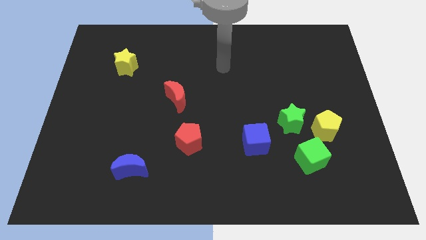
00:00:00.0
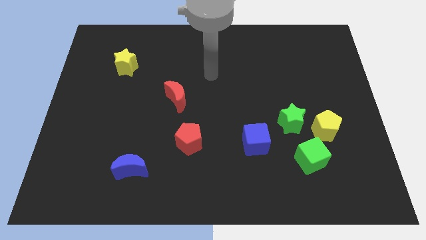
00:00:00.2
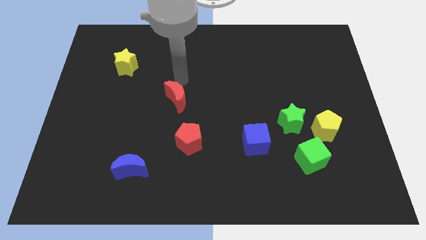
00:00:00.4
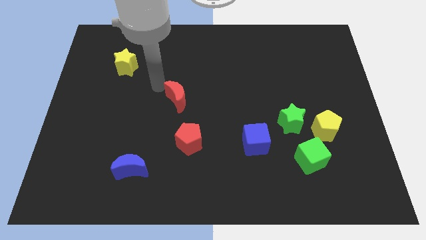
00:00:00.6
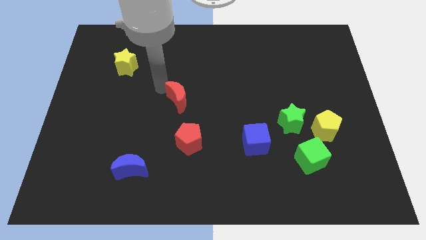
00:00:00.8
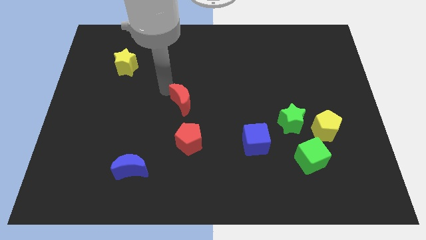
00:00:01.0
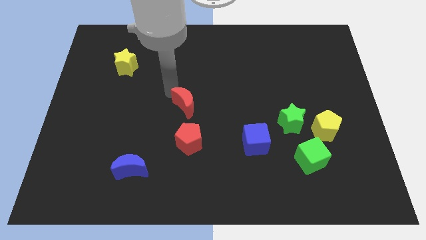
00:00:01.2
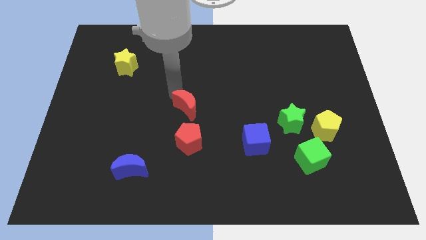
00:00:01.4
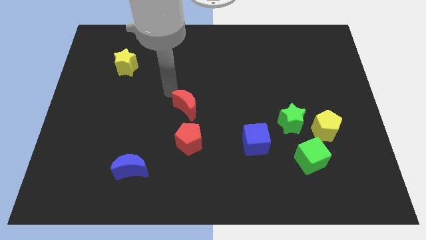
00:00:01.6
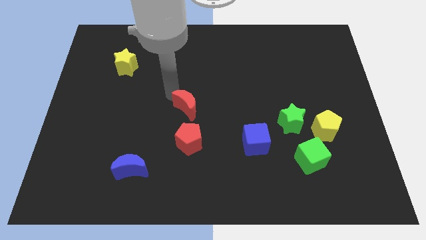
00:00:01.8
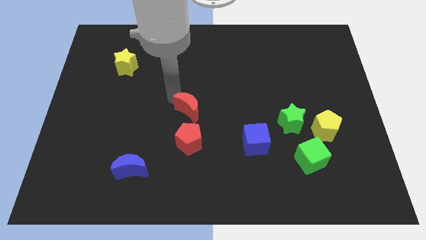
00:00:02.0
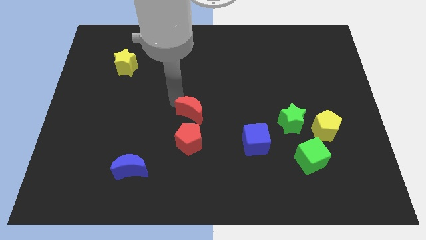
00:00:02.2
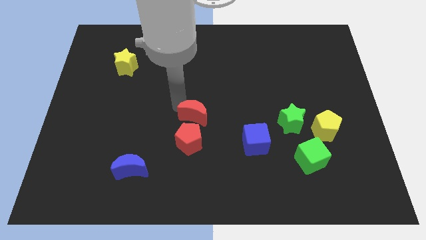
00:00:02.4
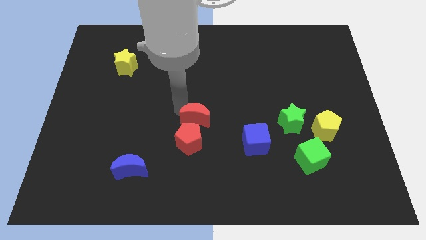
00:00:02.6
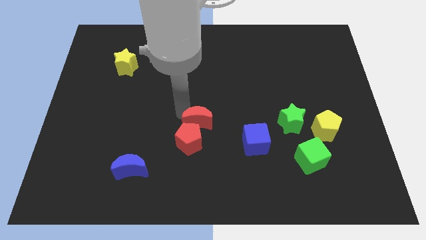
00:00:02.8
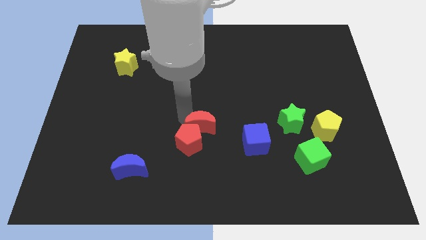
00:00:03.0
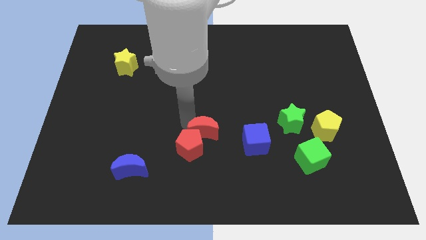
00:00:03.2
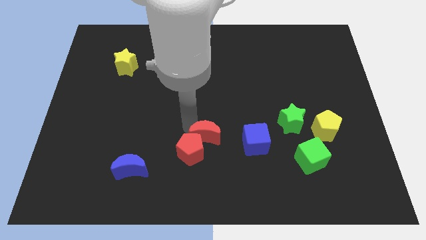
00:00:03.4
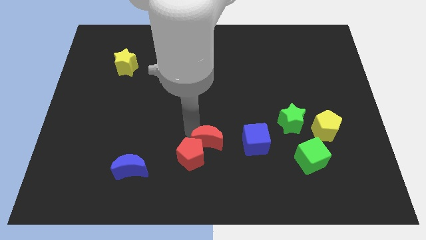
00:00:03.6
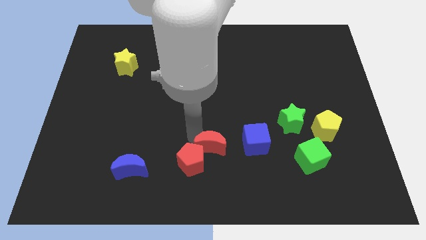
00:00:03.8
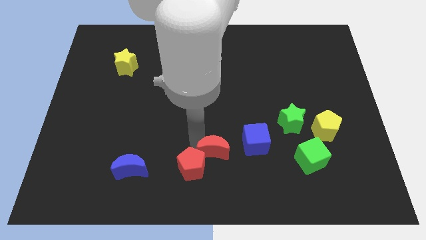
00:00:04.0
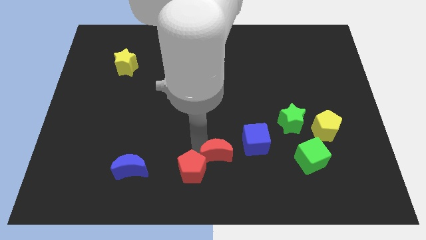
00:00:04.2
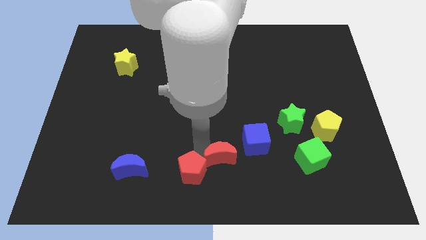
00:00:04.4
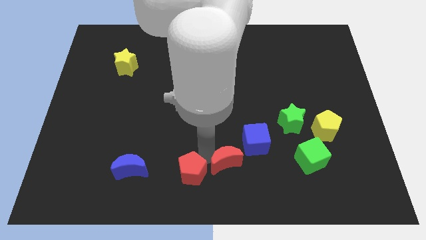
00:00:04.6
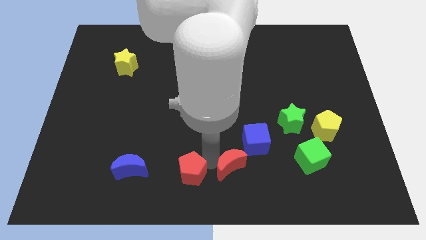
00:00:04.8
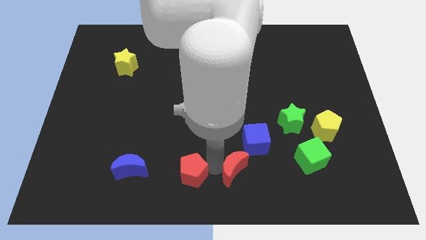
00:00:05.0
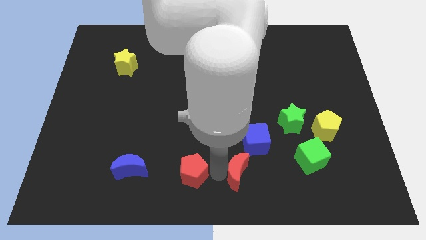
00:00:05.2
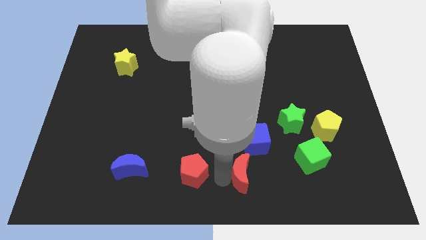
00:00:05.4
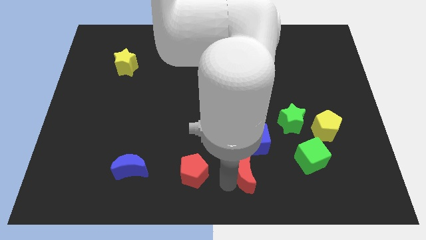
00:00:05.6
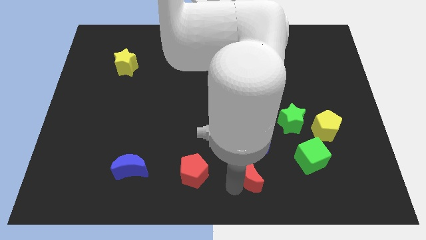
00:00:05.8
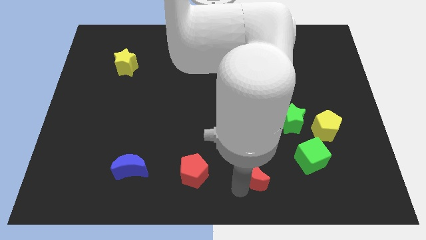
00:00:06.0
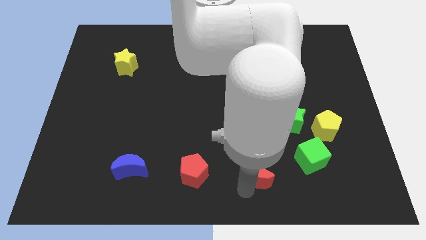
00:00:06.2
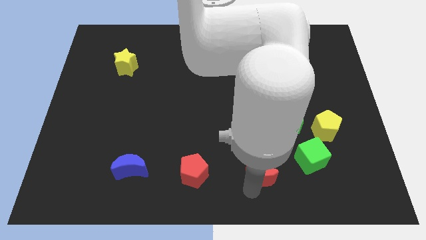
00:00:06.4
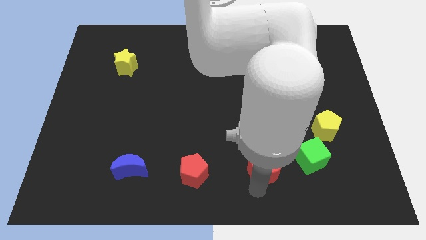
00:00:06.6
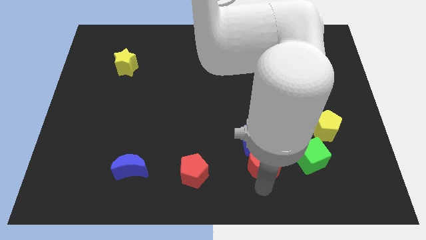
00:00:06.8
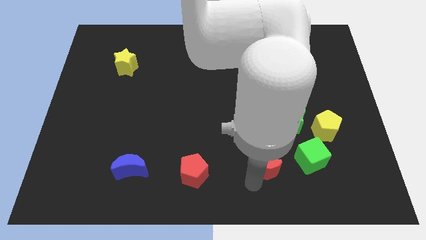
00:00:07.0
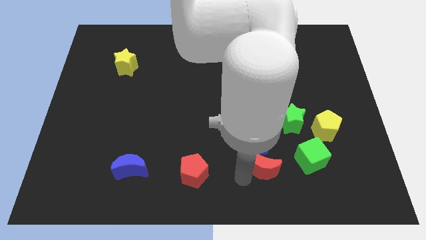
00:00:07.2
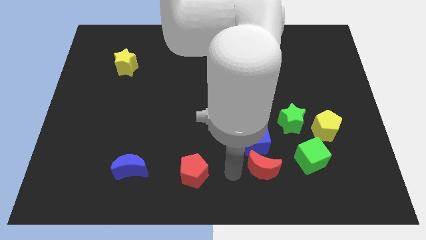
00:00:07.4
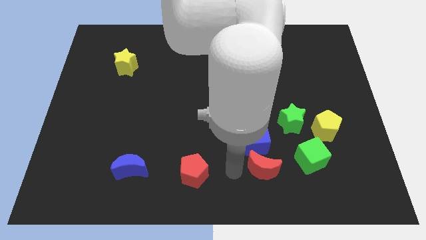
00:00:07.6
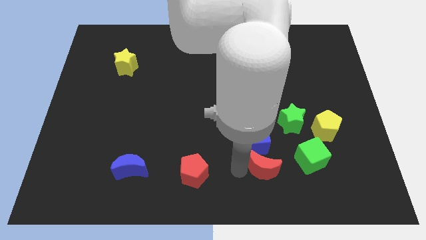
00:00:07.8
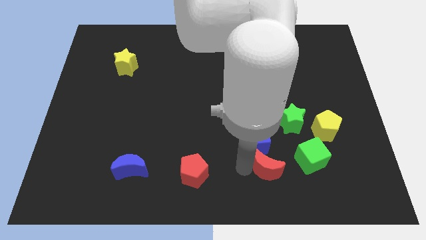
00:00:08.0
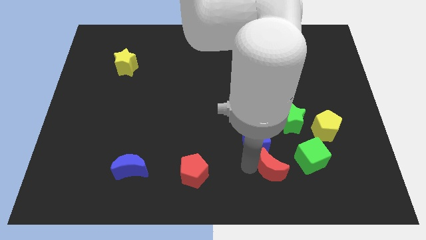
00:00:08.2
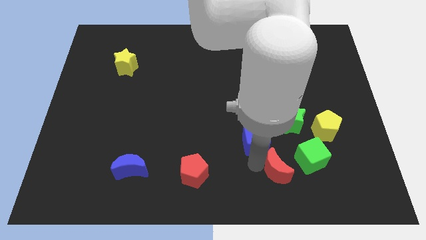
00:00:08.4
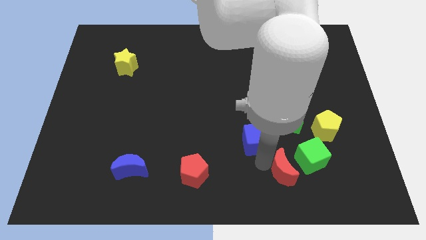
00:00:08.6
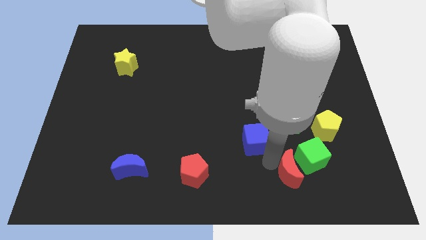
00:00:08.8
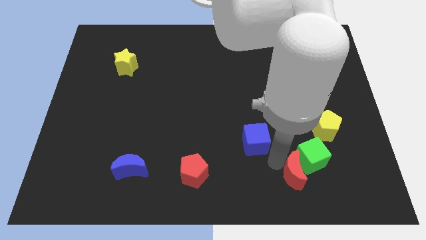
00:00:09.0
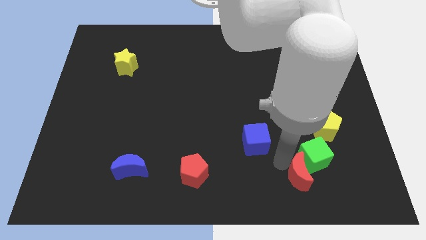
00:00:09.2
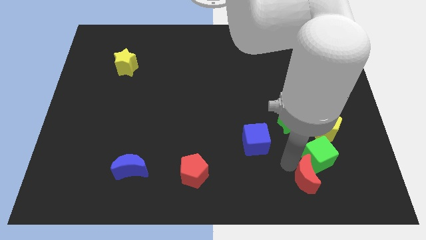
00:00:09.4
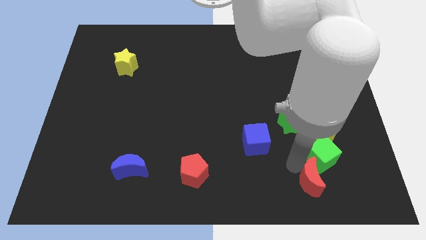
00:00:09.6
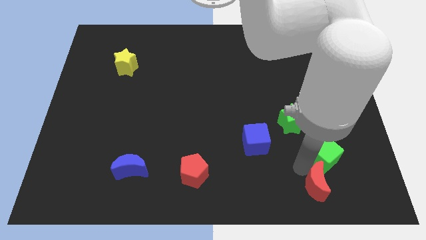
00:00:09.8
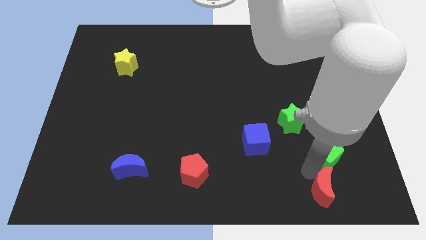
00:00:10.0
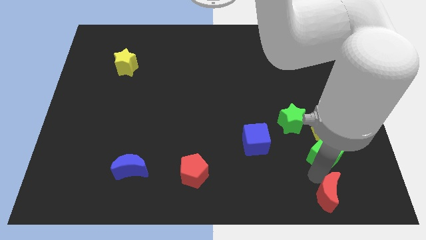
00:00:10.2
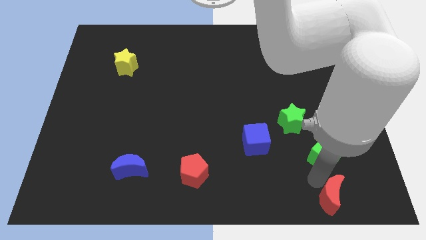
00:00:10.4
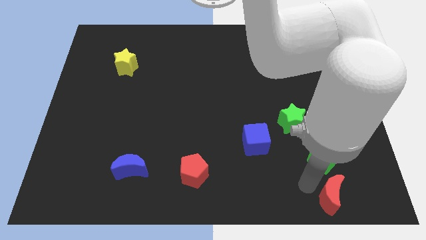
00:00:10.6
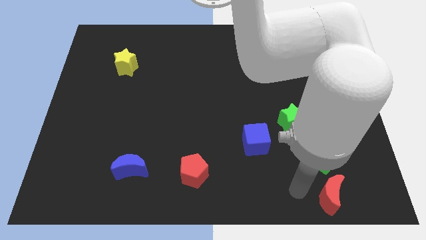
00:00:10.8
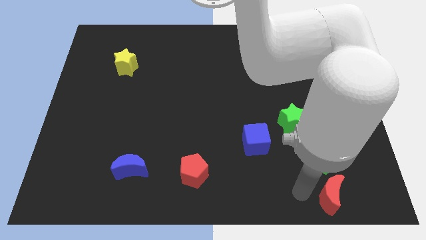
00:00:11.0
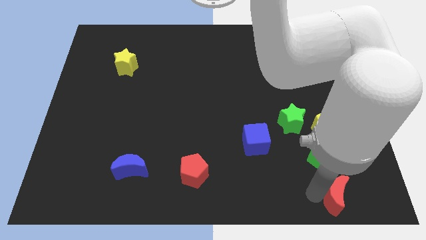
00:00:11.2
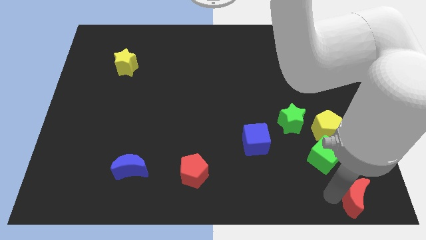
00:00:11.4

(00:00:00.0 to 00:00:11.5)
push the red moon to the bottom right of the board

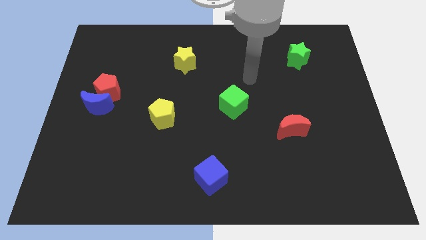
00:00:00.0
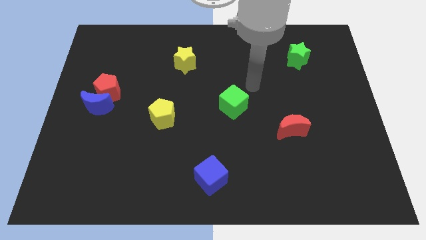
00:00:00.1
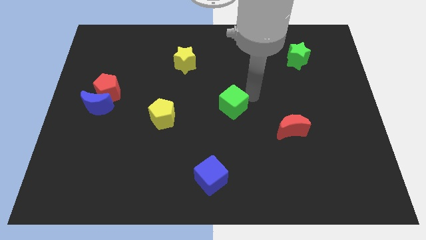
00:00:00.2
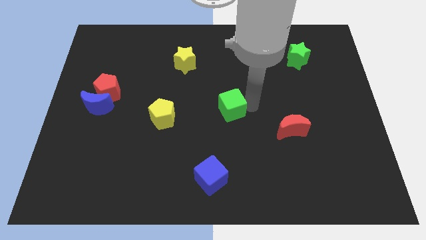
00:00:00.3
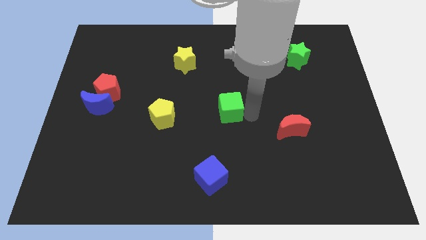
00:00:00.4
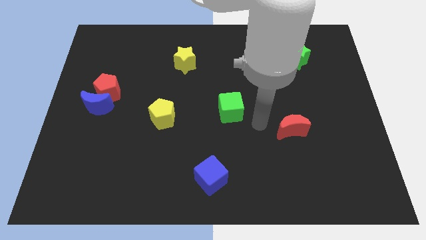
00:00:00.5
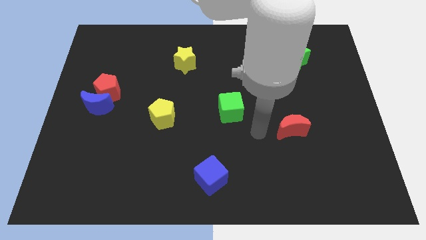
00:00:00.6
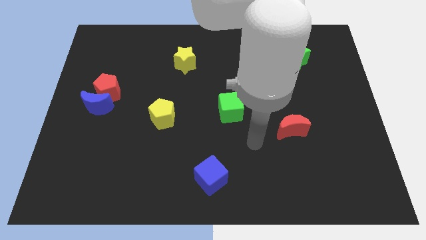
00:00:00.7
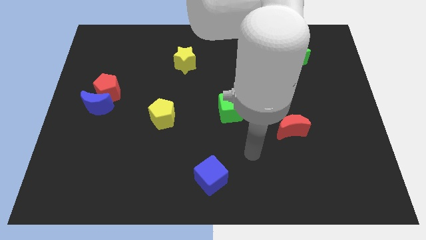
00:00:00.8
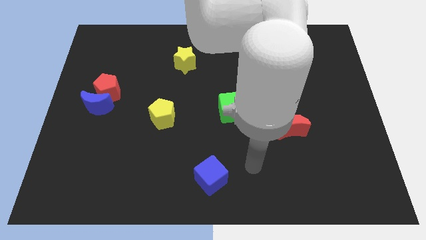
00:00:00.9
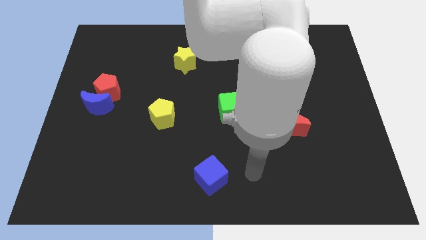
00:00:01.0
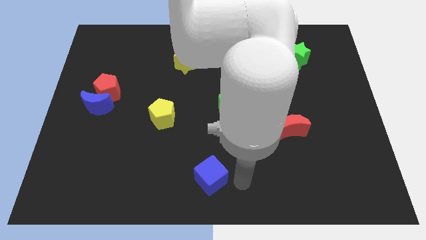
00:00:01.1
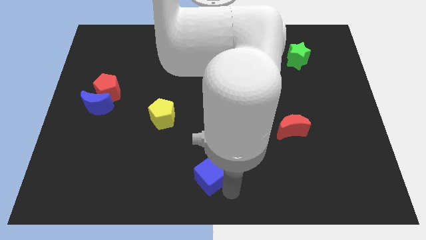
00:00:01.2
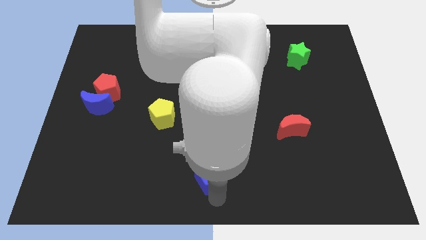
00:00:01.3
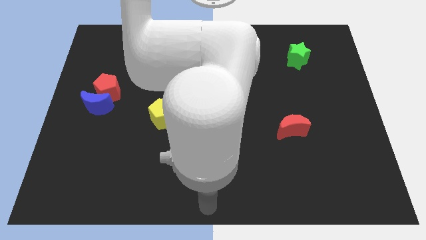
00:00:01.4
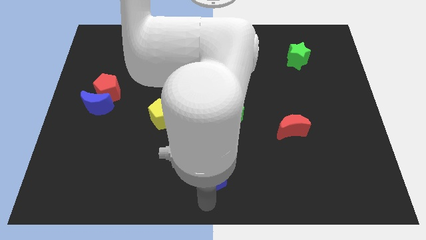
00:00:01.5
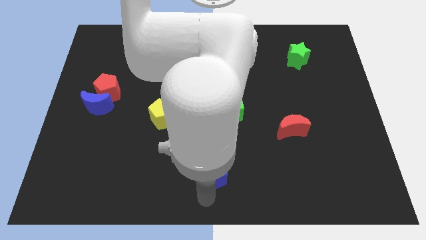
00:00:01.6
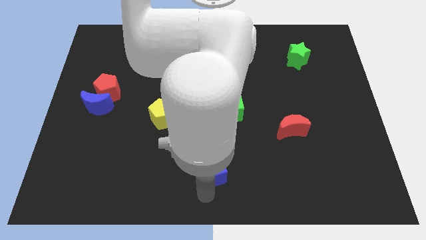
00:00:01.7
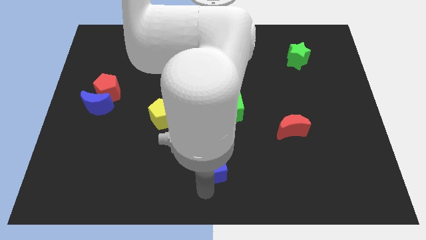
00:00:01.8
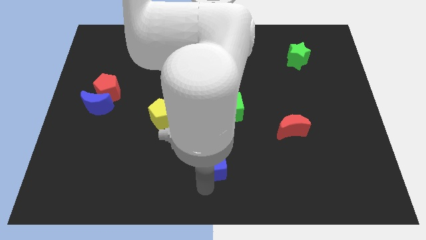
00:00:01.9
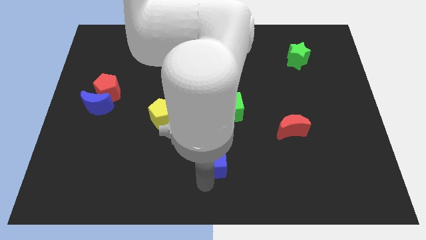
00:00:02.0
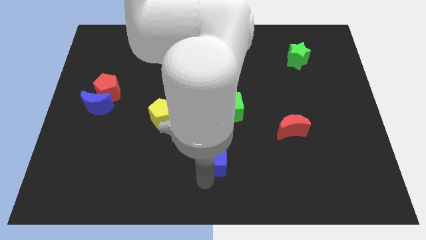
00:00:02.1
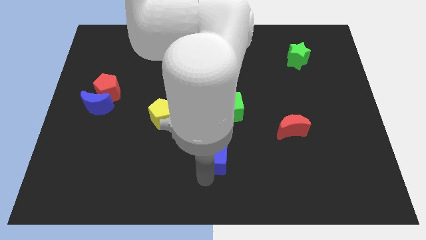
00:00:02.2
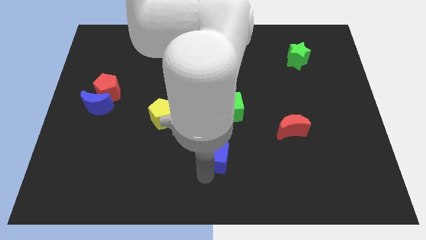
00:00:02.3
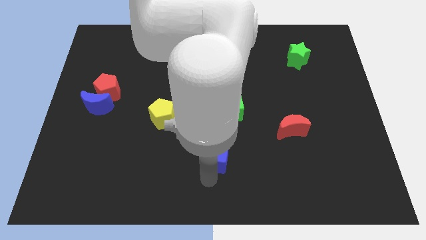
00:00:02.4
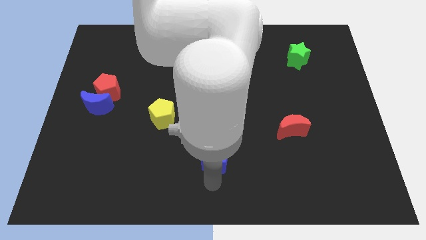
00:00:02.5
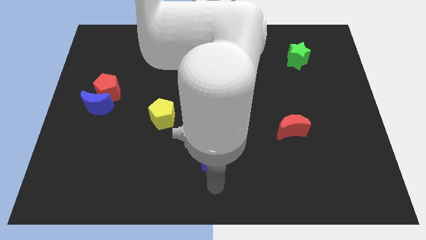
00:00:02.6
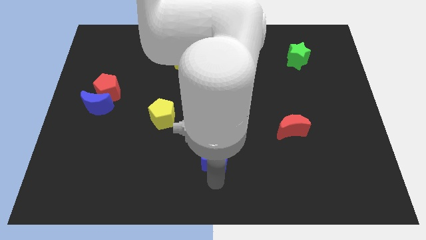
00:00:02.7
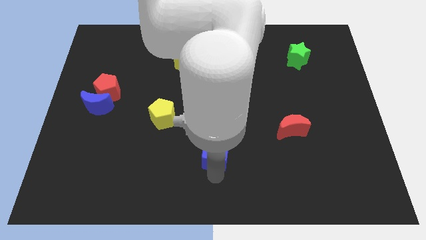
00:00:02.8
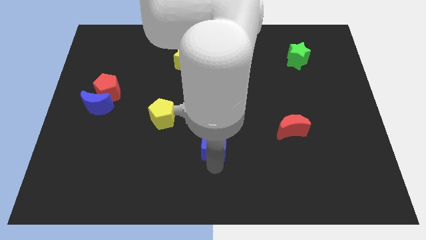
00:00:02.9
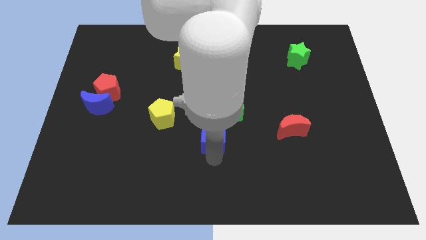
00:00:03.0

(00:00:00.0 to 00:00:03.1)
move the blue cube to the middle
